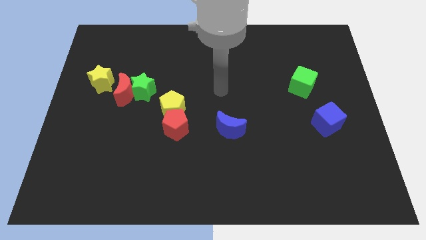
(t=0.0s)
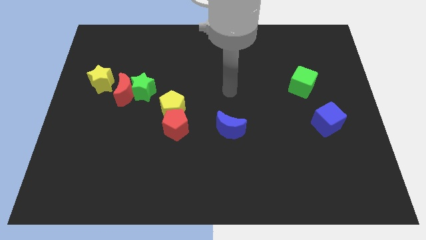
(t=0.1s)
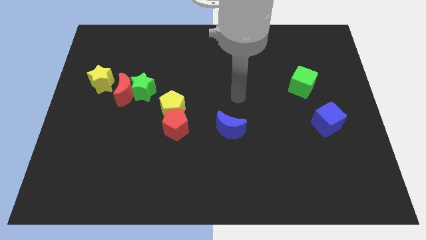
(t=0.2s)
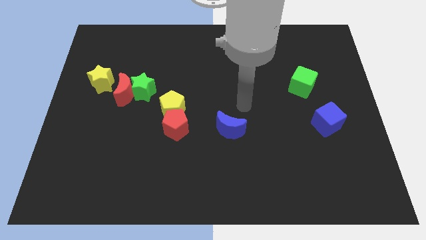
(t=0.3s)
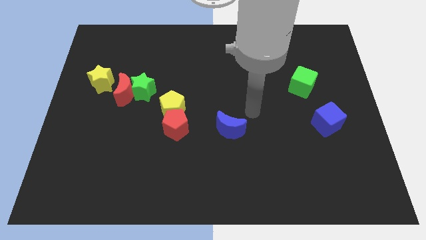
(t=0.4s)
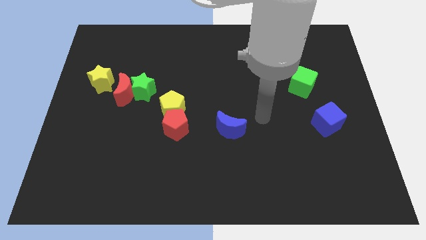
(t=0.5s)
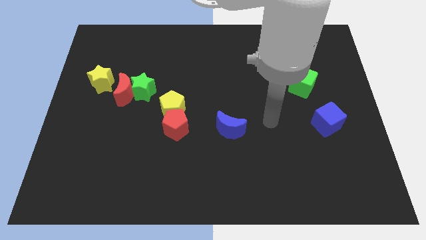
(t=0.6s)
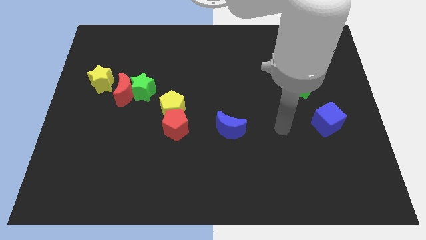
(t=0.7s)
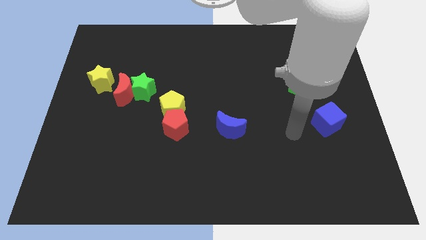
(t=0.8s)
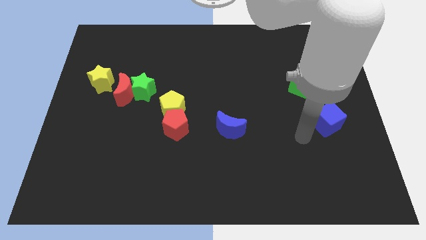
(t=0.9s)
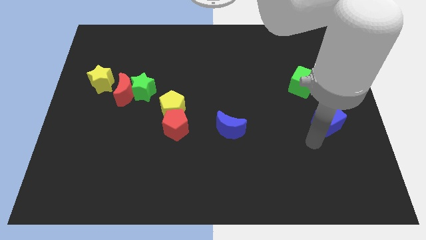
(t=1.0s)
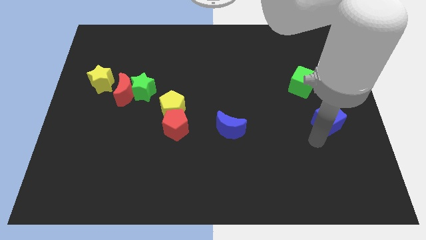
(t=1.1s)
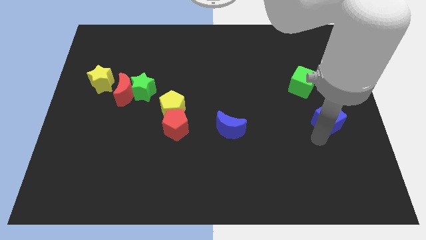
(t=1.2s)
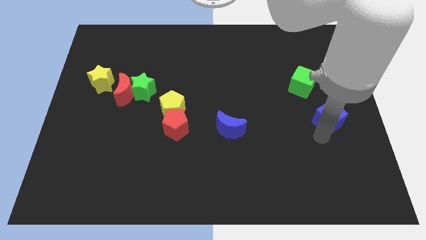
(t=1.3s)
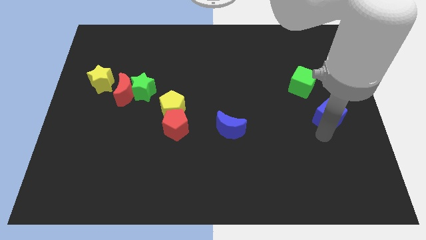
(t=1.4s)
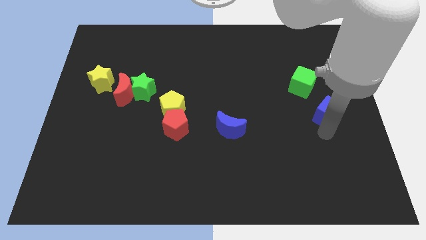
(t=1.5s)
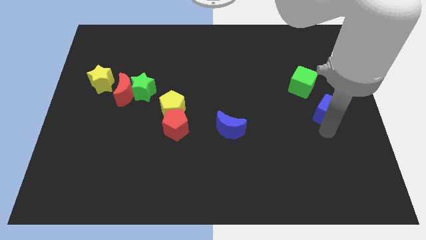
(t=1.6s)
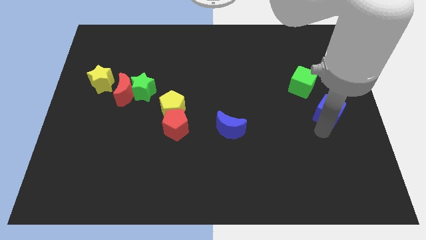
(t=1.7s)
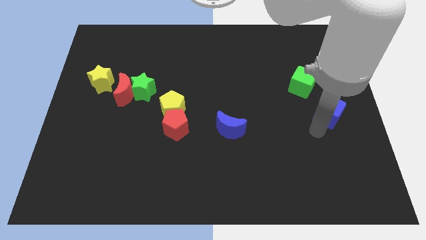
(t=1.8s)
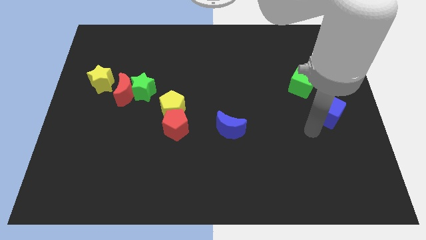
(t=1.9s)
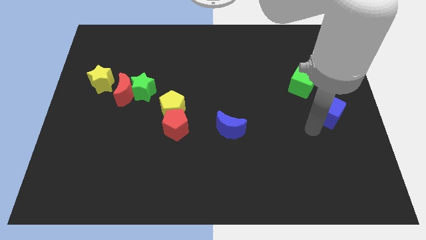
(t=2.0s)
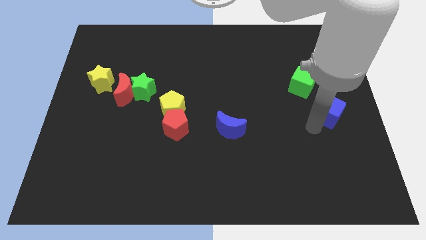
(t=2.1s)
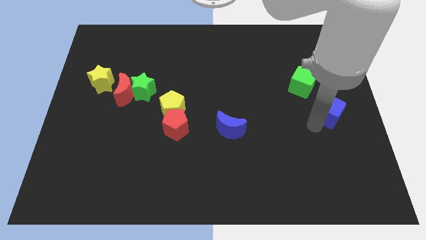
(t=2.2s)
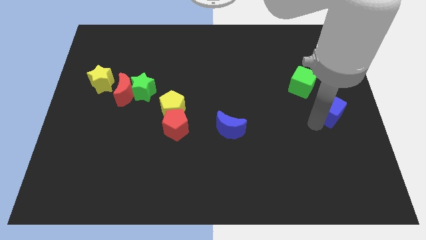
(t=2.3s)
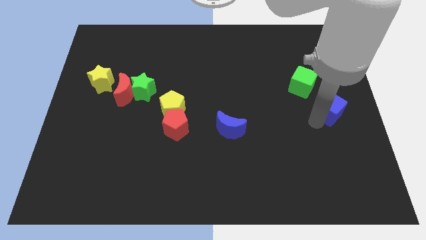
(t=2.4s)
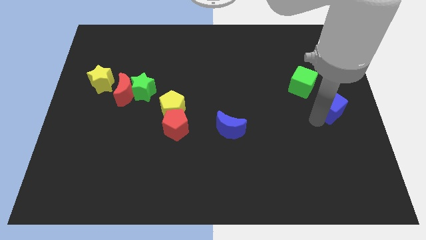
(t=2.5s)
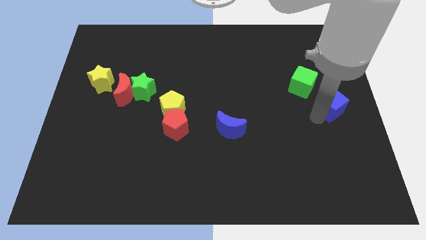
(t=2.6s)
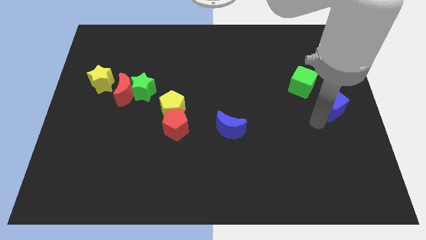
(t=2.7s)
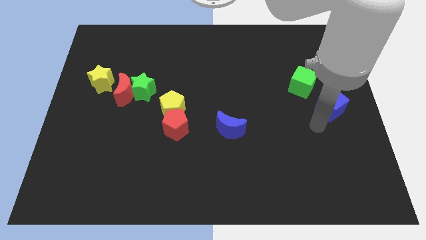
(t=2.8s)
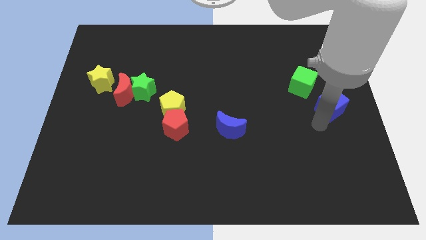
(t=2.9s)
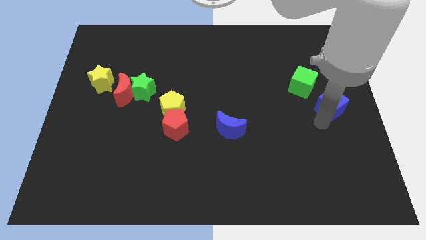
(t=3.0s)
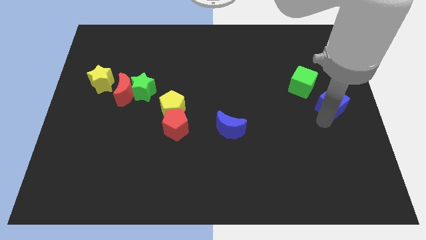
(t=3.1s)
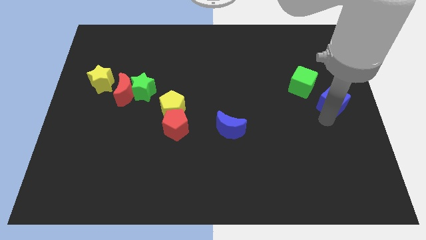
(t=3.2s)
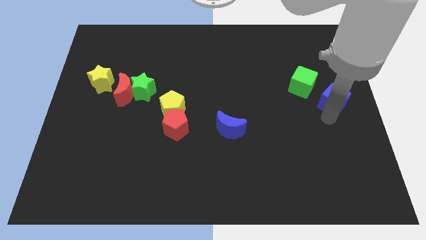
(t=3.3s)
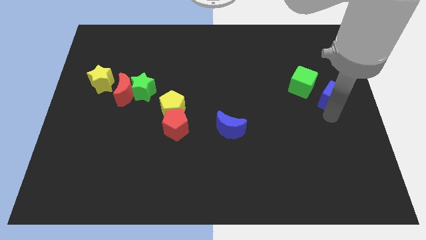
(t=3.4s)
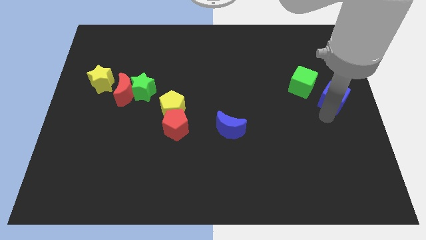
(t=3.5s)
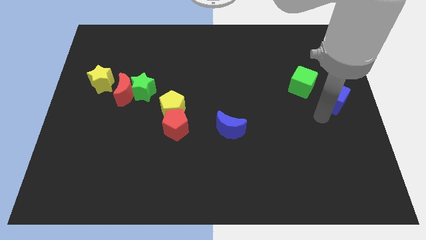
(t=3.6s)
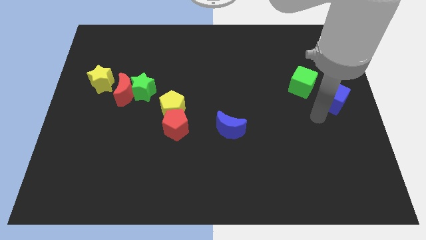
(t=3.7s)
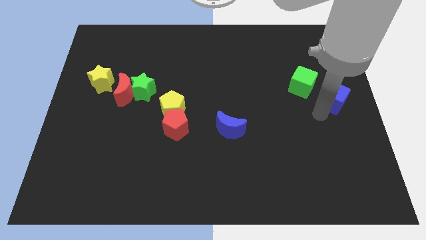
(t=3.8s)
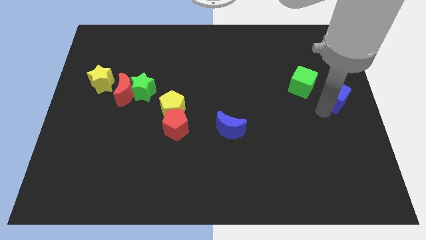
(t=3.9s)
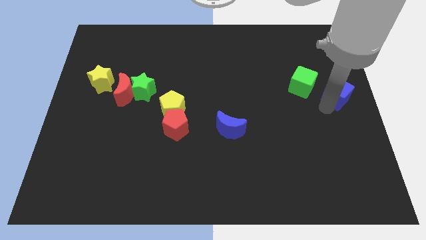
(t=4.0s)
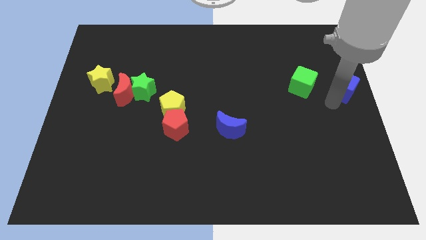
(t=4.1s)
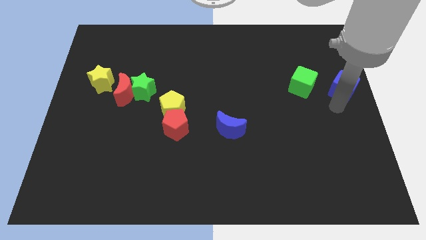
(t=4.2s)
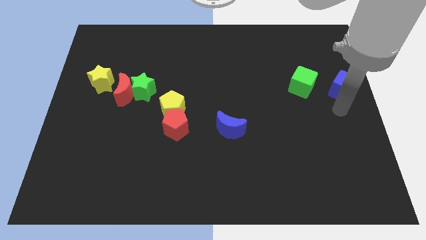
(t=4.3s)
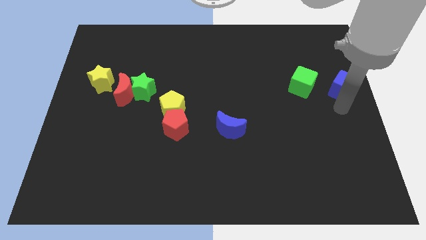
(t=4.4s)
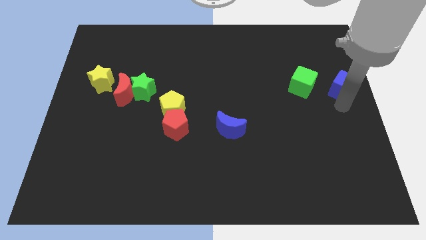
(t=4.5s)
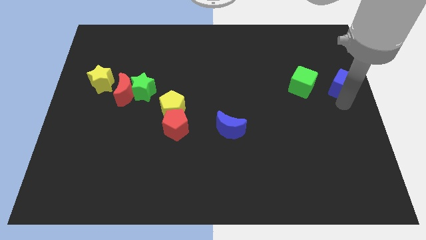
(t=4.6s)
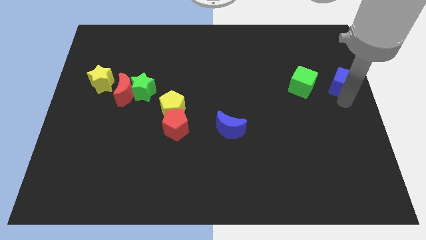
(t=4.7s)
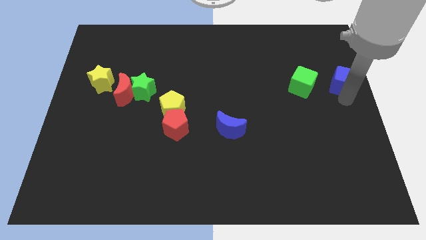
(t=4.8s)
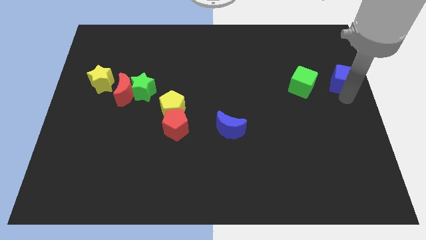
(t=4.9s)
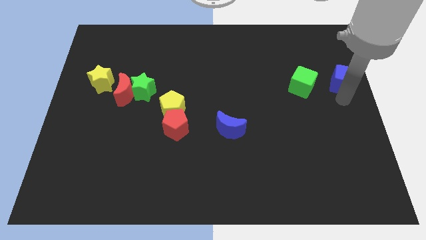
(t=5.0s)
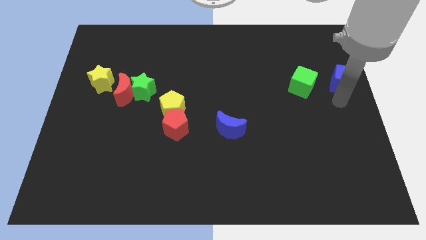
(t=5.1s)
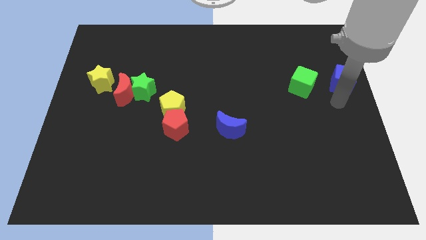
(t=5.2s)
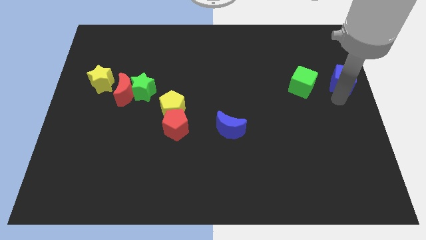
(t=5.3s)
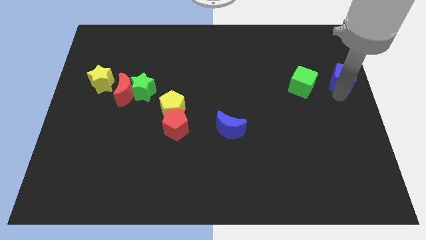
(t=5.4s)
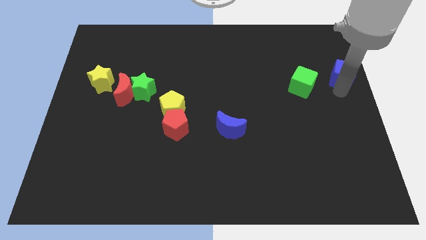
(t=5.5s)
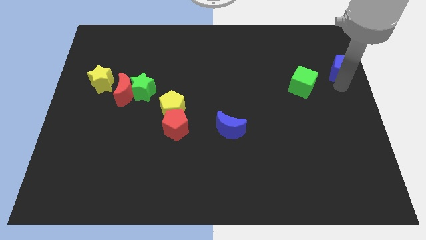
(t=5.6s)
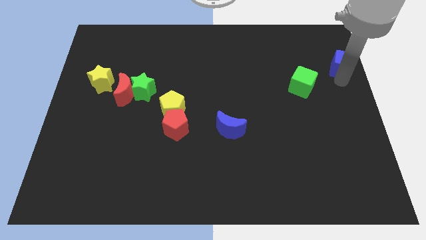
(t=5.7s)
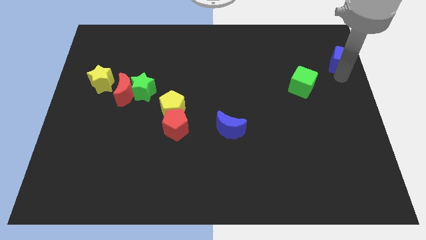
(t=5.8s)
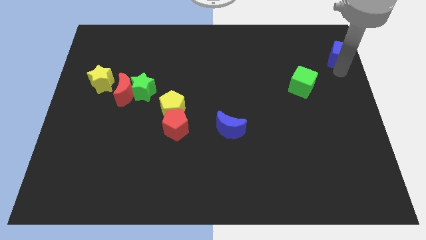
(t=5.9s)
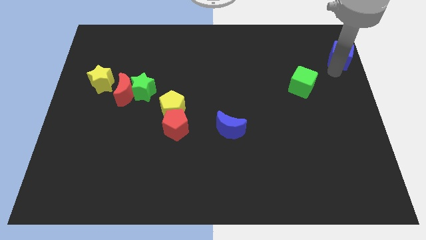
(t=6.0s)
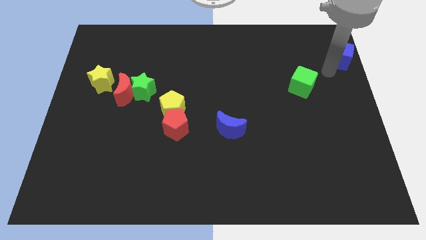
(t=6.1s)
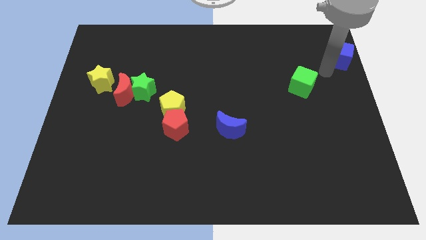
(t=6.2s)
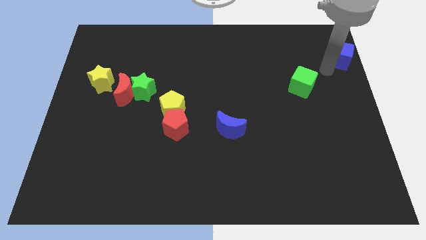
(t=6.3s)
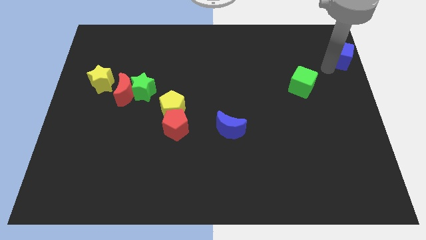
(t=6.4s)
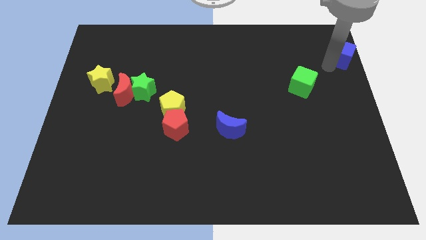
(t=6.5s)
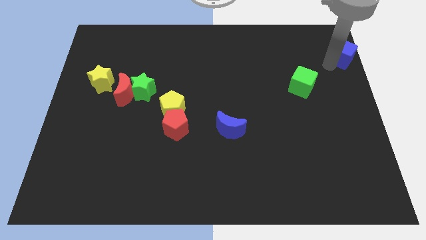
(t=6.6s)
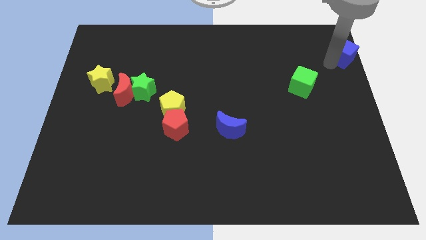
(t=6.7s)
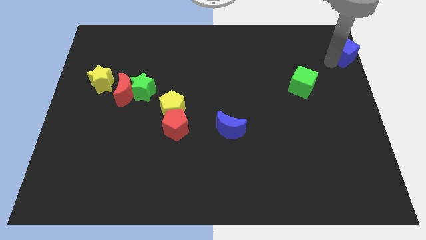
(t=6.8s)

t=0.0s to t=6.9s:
slide the blue cube to the upper right corner
